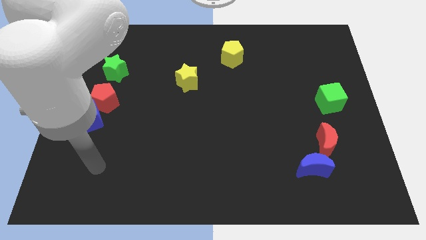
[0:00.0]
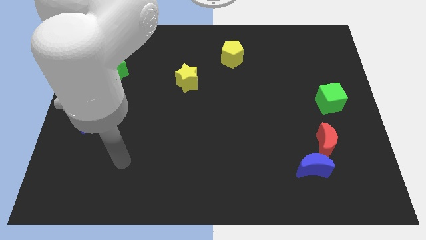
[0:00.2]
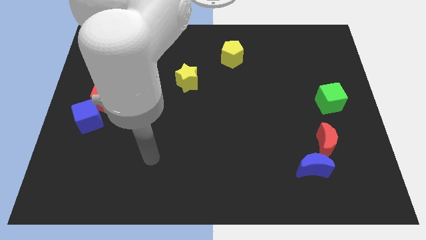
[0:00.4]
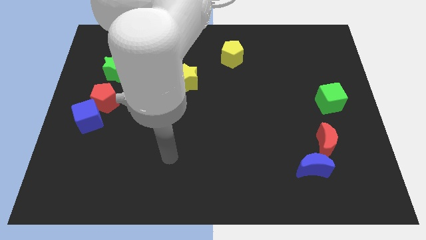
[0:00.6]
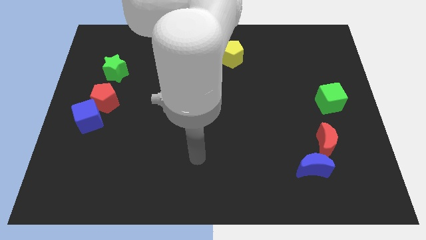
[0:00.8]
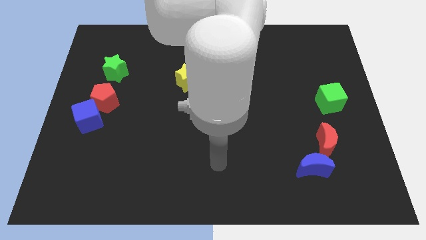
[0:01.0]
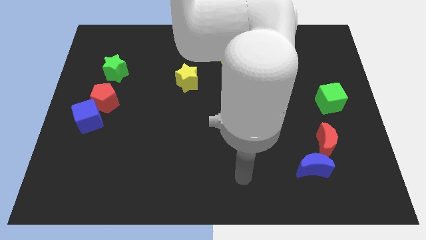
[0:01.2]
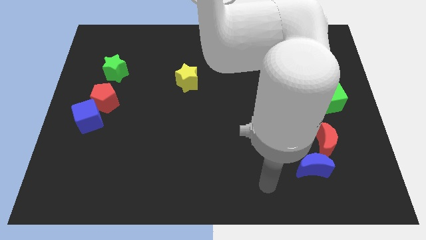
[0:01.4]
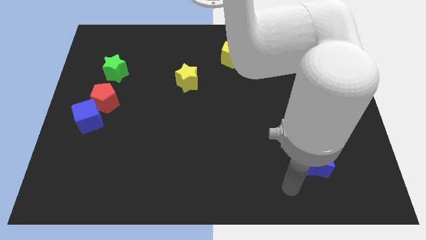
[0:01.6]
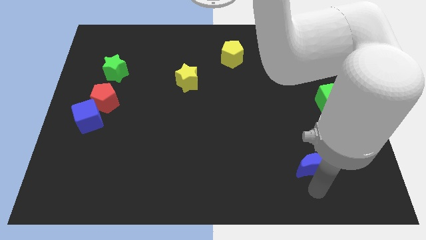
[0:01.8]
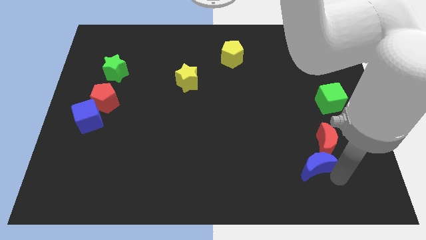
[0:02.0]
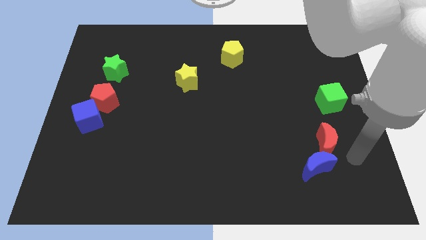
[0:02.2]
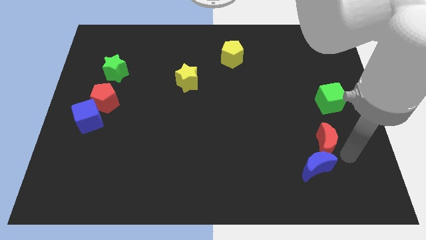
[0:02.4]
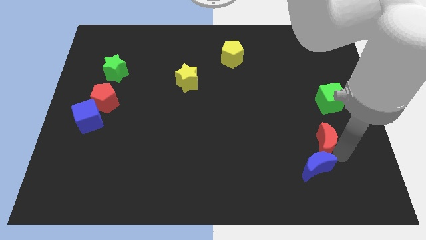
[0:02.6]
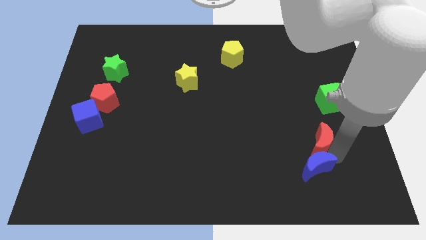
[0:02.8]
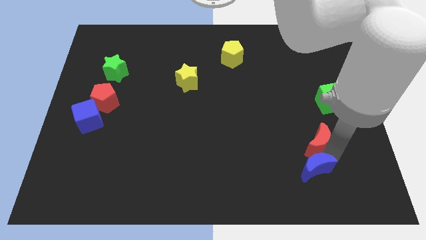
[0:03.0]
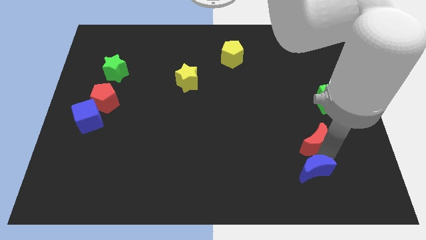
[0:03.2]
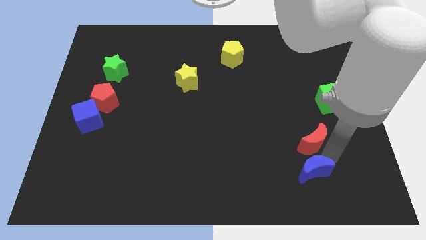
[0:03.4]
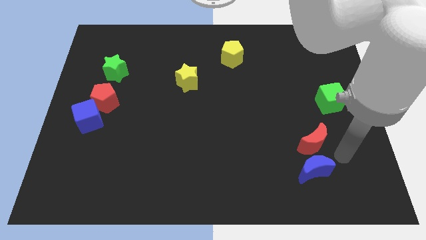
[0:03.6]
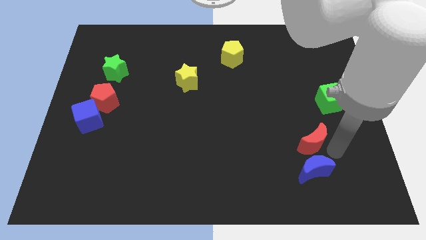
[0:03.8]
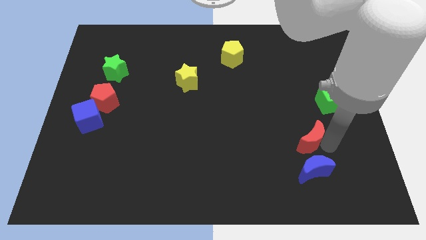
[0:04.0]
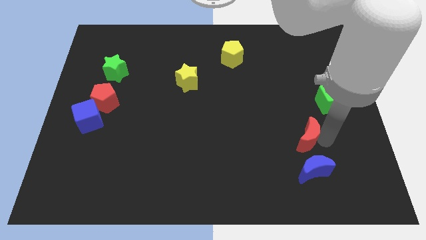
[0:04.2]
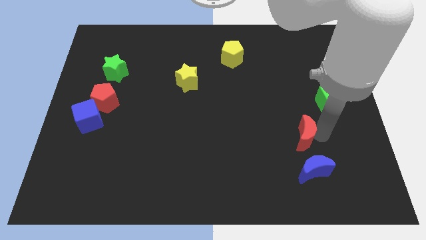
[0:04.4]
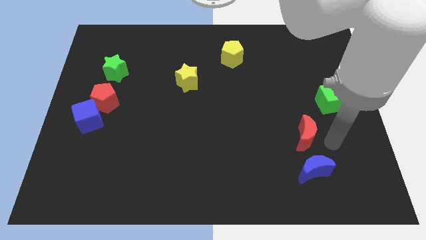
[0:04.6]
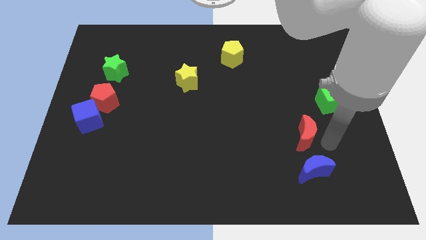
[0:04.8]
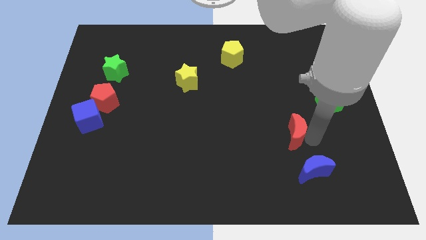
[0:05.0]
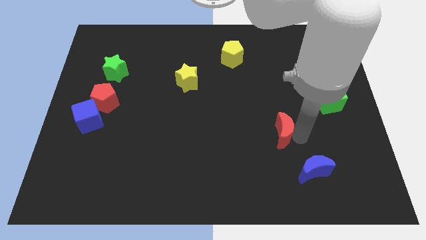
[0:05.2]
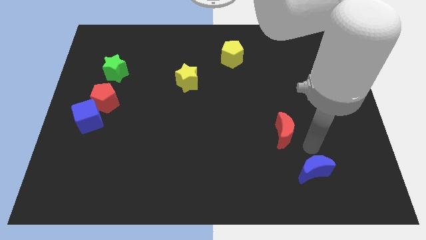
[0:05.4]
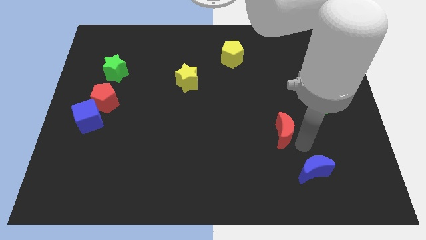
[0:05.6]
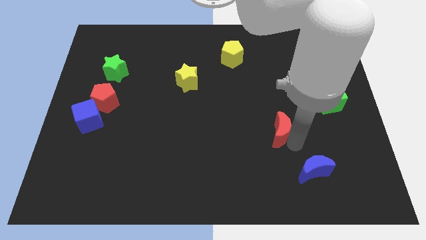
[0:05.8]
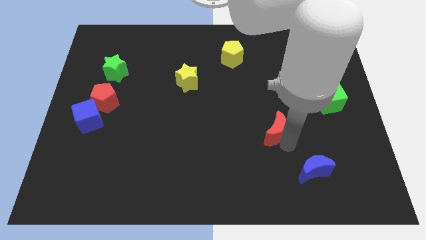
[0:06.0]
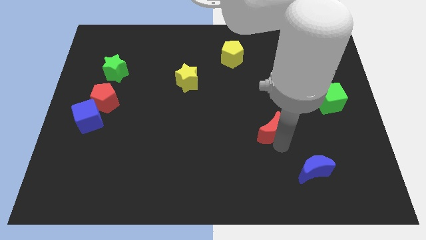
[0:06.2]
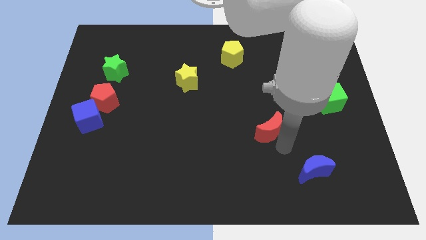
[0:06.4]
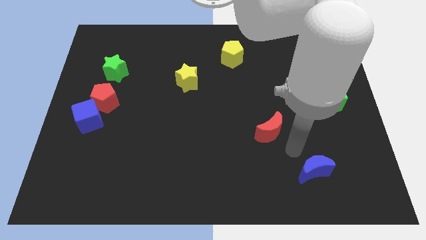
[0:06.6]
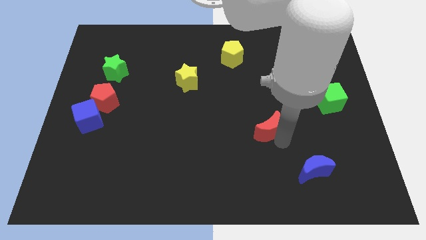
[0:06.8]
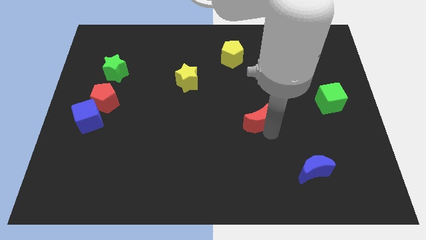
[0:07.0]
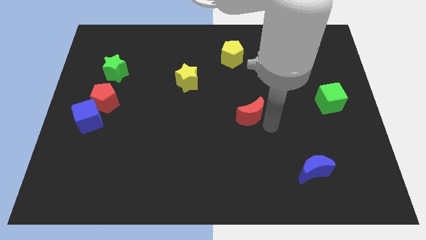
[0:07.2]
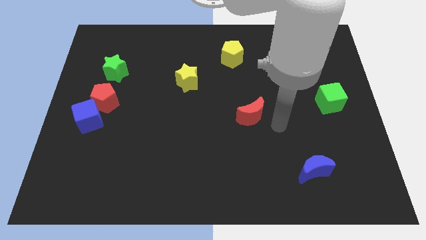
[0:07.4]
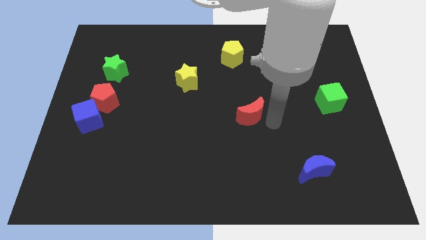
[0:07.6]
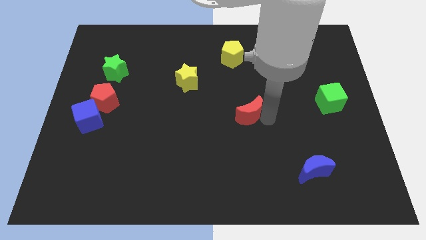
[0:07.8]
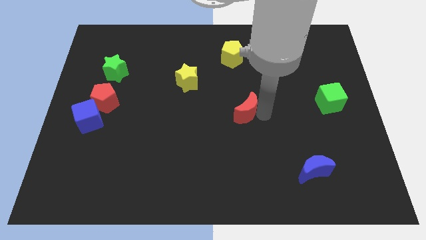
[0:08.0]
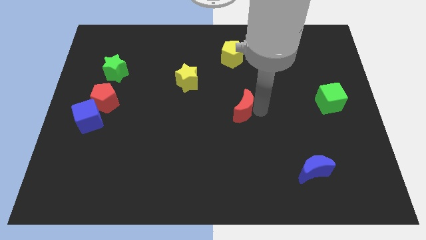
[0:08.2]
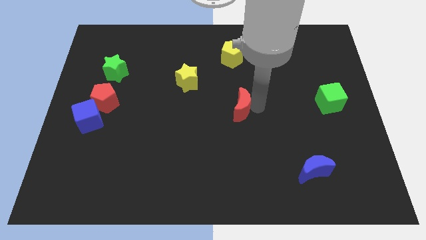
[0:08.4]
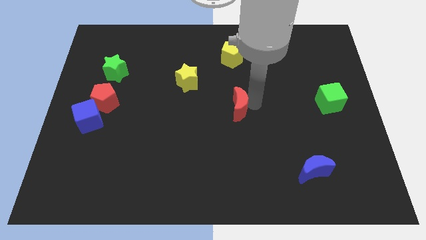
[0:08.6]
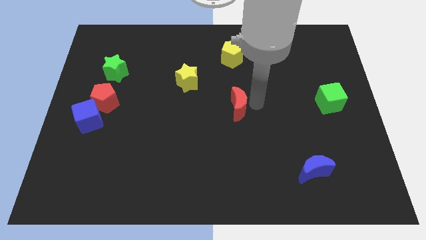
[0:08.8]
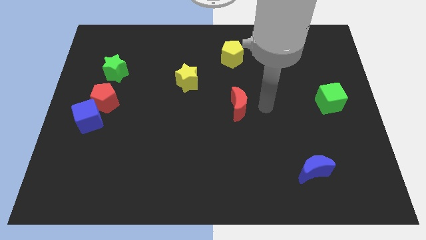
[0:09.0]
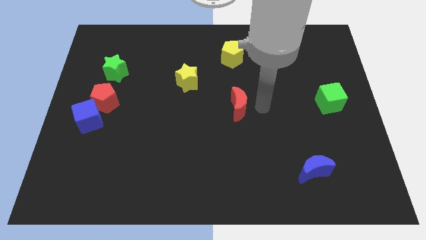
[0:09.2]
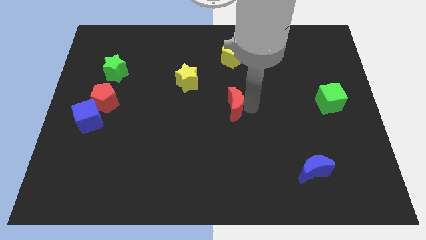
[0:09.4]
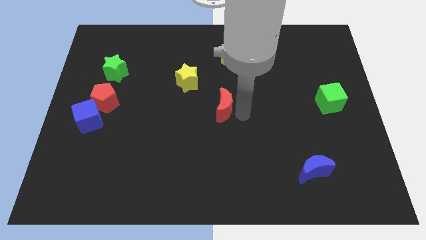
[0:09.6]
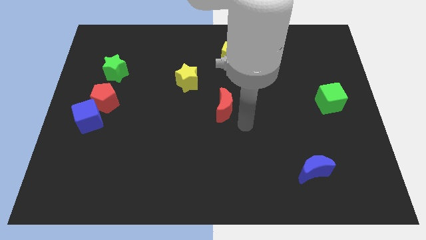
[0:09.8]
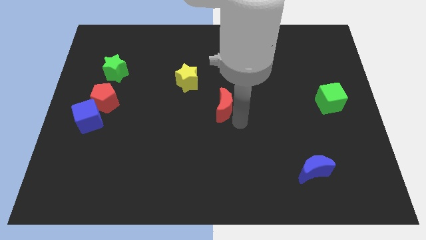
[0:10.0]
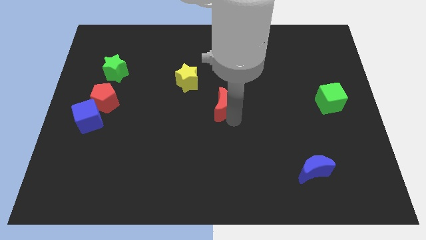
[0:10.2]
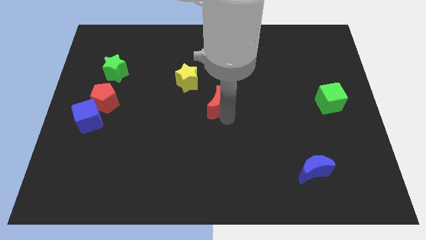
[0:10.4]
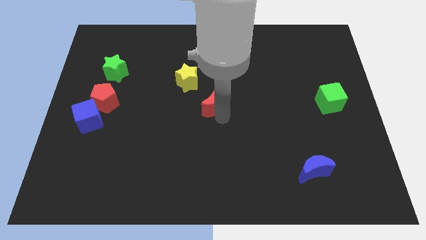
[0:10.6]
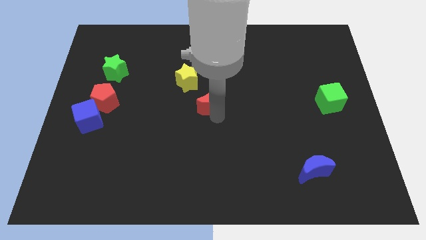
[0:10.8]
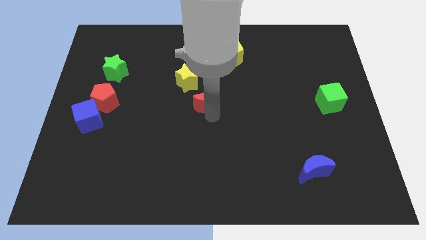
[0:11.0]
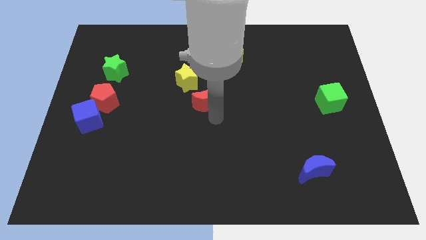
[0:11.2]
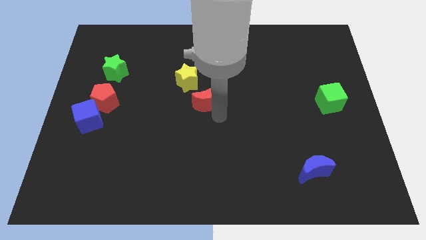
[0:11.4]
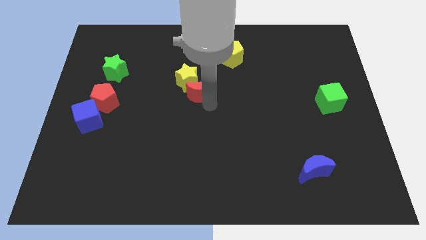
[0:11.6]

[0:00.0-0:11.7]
put the red moon to the yellow star

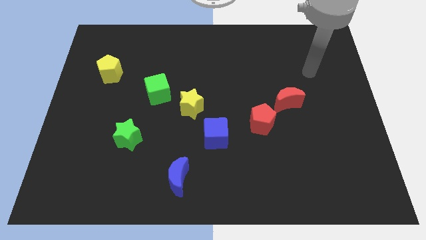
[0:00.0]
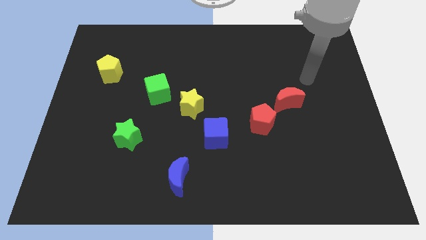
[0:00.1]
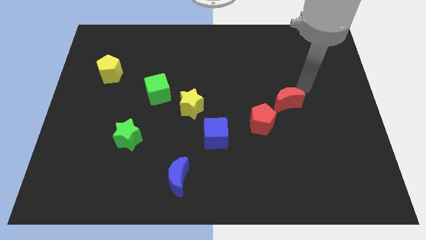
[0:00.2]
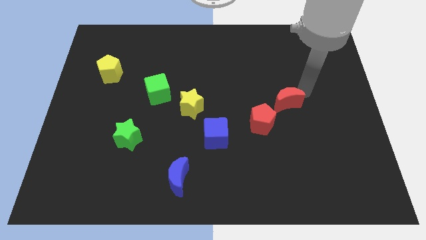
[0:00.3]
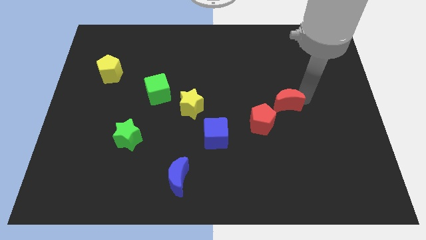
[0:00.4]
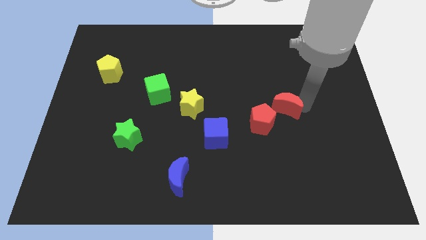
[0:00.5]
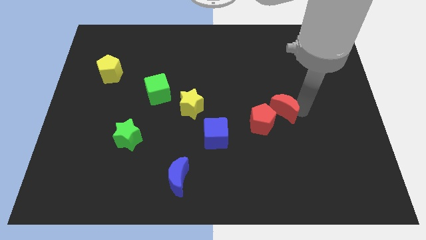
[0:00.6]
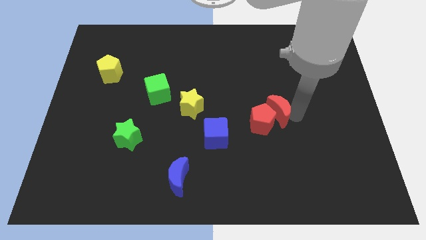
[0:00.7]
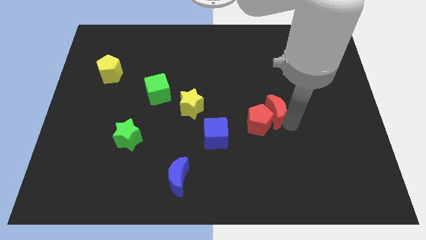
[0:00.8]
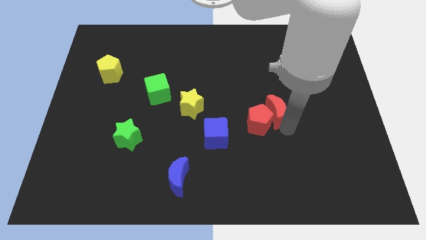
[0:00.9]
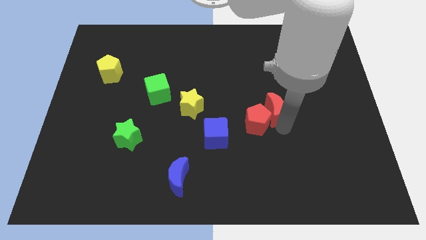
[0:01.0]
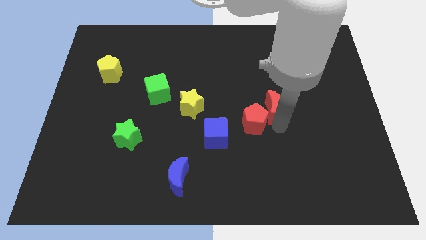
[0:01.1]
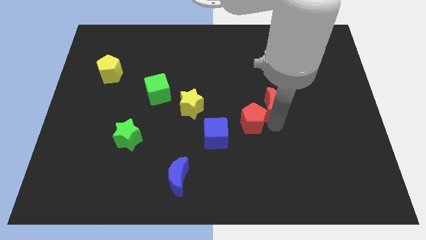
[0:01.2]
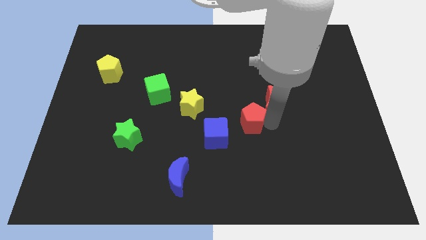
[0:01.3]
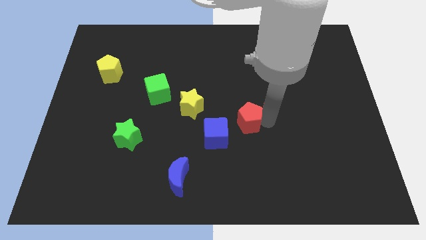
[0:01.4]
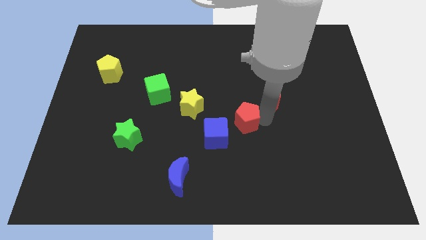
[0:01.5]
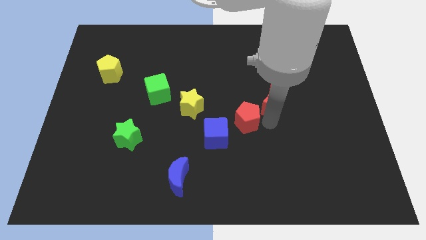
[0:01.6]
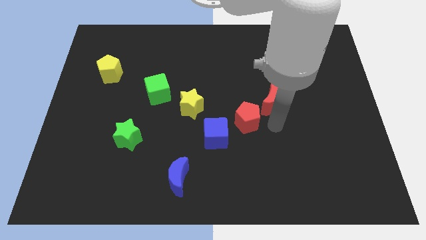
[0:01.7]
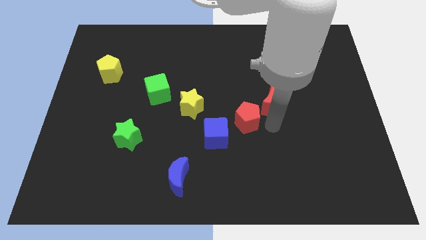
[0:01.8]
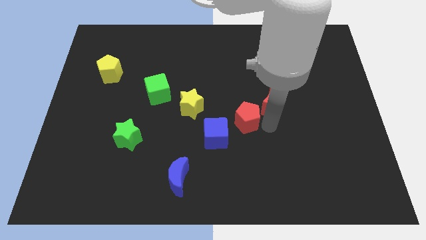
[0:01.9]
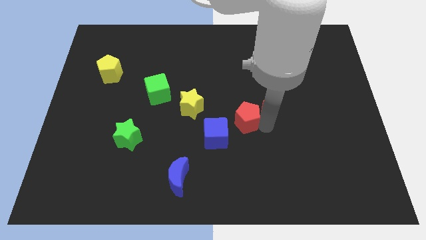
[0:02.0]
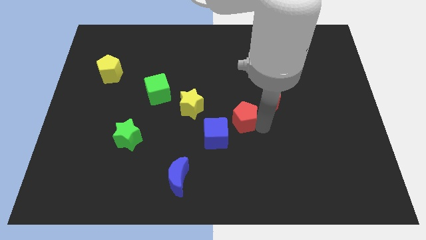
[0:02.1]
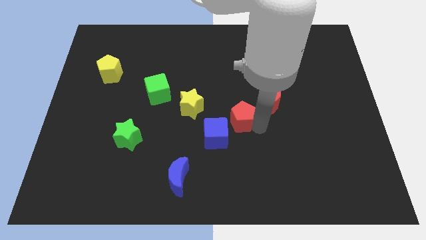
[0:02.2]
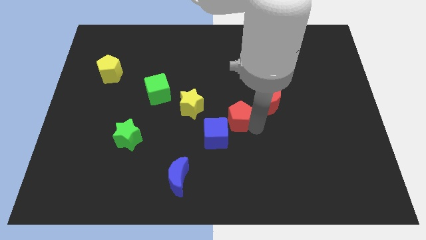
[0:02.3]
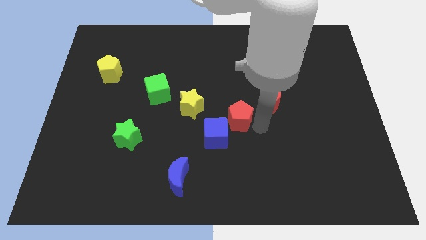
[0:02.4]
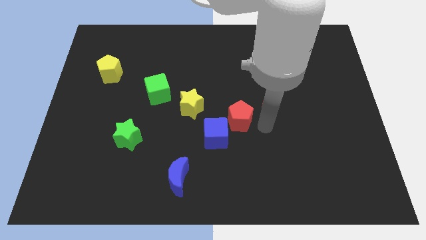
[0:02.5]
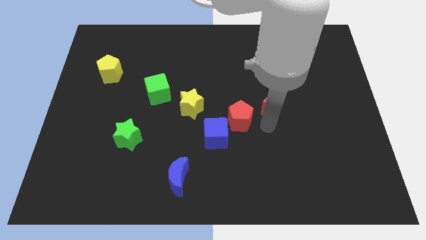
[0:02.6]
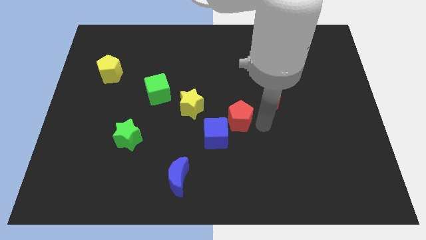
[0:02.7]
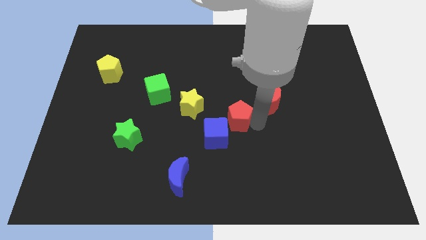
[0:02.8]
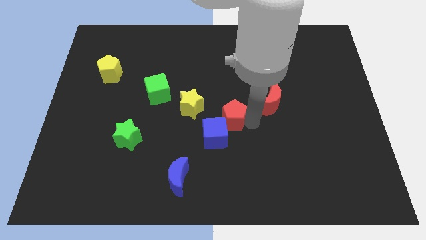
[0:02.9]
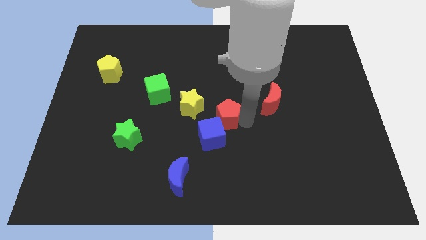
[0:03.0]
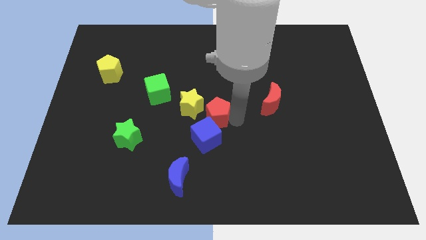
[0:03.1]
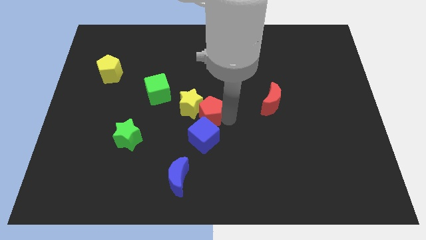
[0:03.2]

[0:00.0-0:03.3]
slide the red pentagon next to the yellow star
